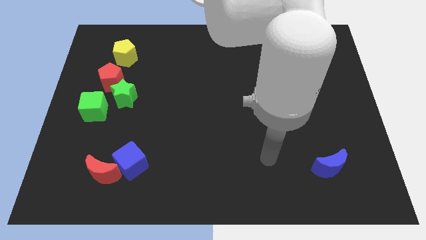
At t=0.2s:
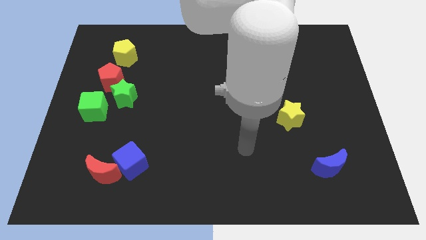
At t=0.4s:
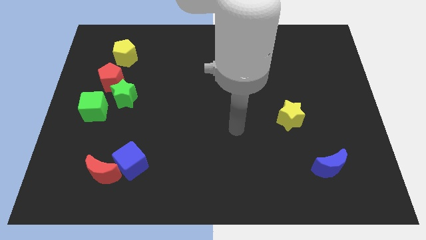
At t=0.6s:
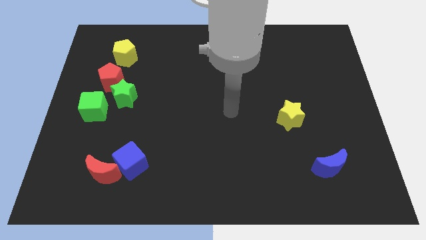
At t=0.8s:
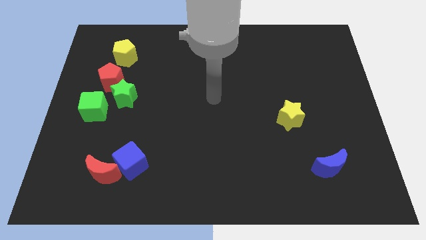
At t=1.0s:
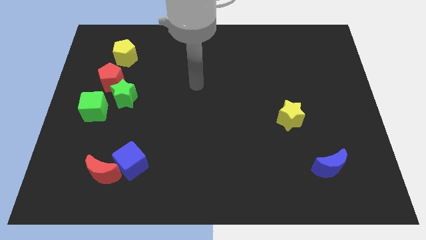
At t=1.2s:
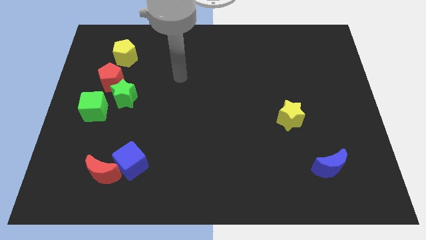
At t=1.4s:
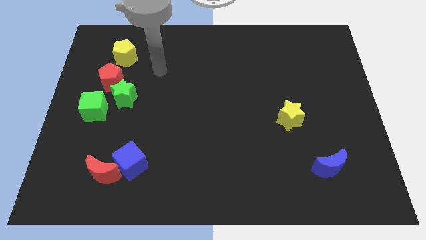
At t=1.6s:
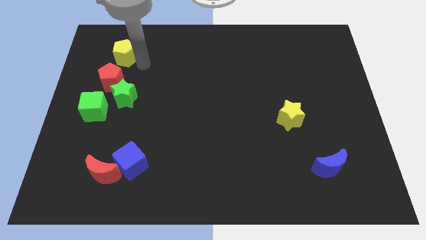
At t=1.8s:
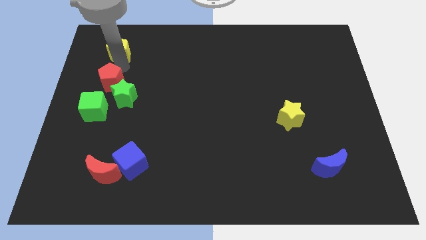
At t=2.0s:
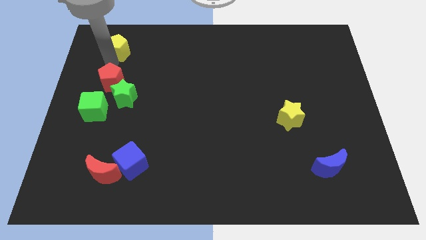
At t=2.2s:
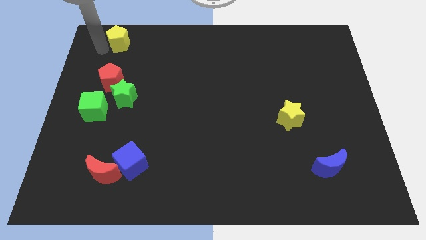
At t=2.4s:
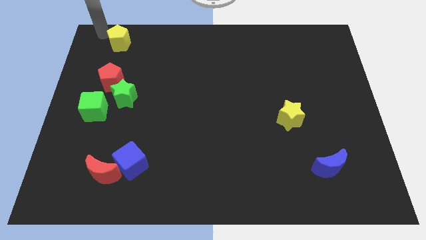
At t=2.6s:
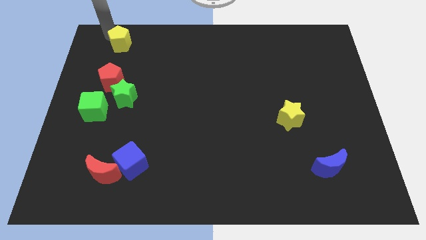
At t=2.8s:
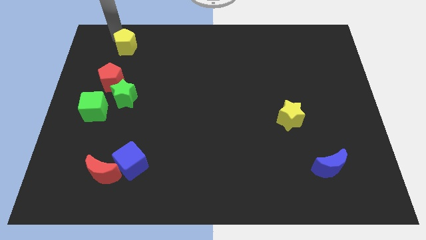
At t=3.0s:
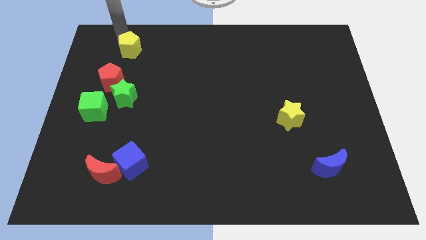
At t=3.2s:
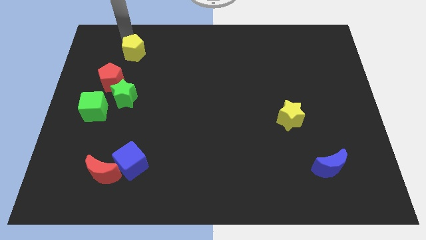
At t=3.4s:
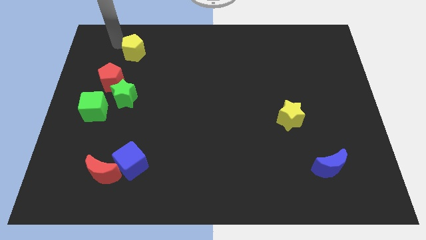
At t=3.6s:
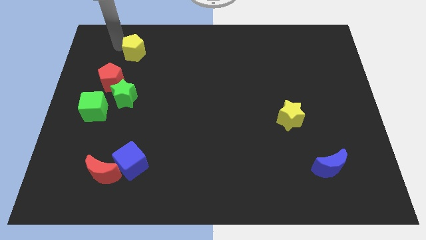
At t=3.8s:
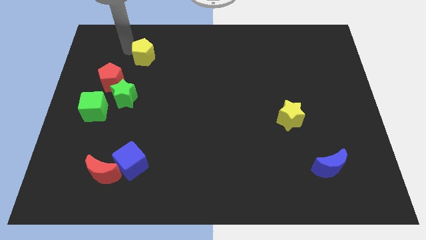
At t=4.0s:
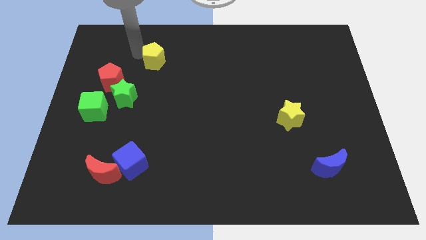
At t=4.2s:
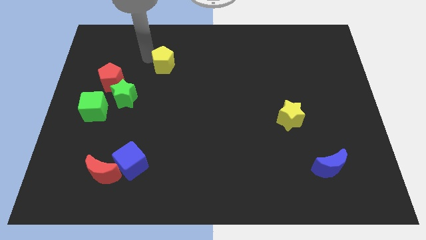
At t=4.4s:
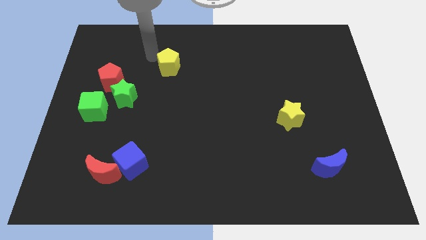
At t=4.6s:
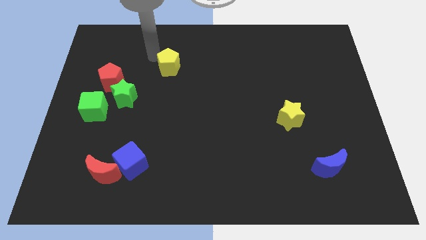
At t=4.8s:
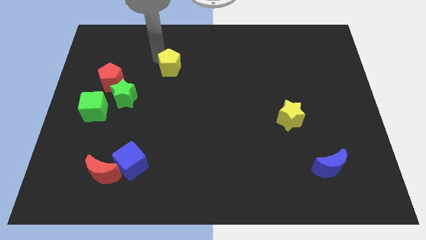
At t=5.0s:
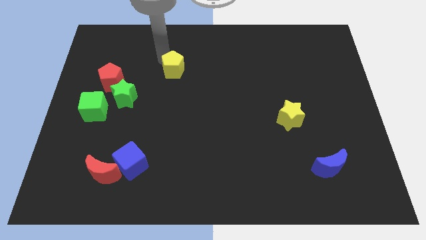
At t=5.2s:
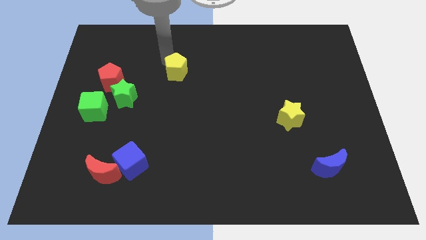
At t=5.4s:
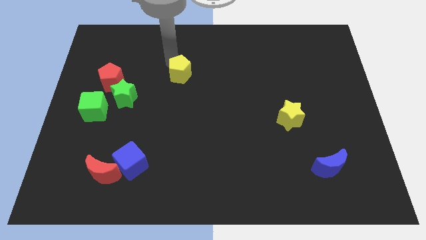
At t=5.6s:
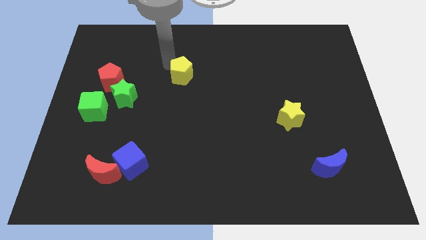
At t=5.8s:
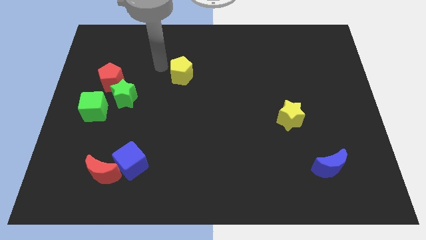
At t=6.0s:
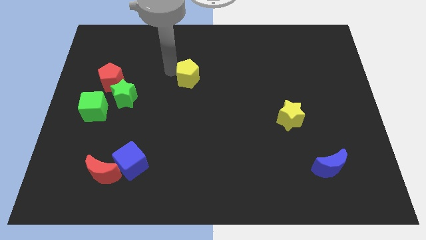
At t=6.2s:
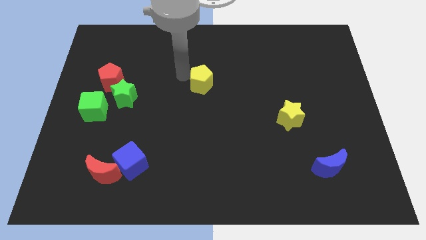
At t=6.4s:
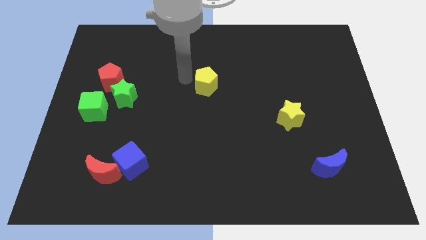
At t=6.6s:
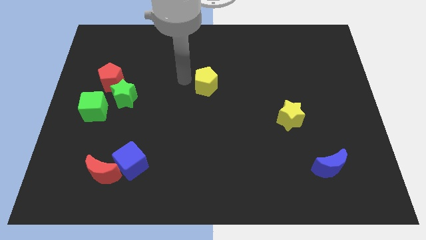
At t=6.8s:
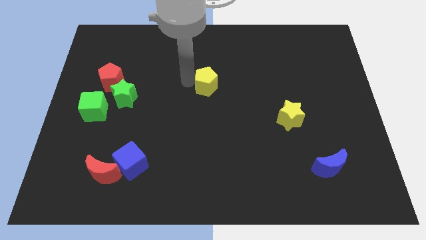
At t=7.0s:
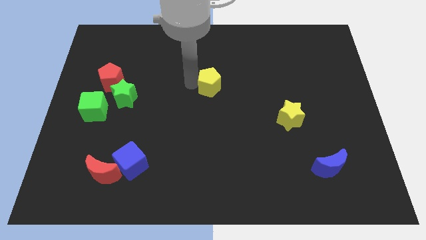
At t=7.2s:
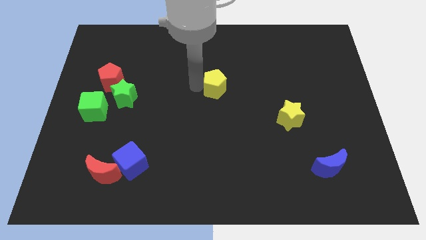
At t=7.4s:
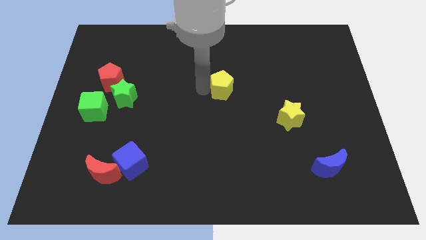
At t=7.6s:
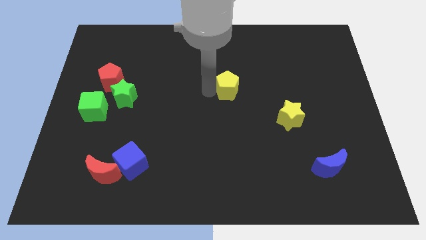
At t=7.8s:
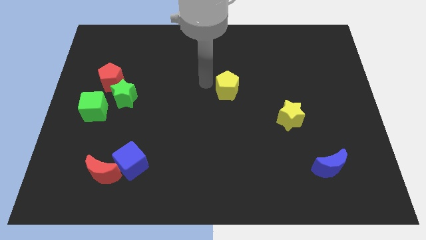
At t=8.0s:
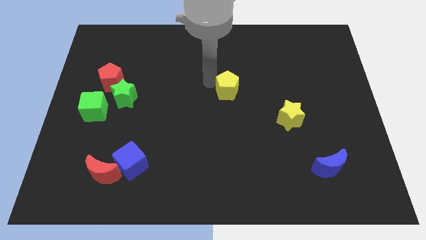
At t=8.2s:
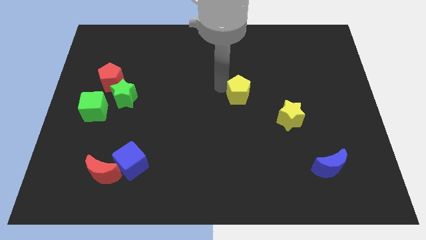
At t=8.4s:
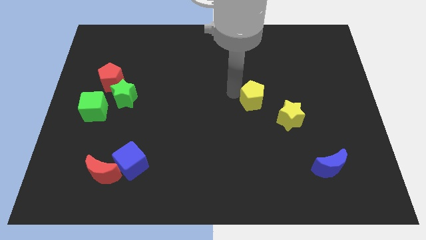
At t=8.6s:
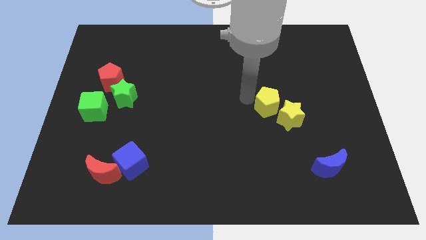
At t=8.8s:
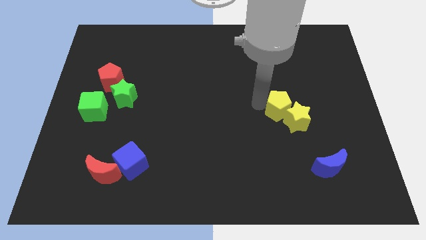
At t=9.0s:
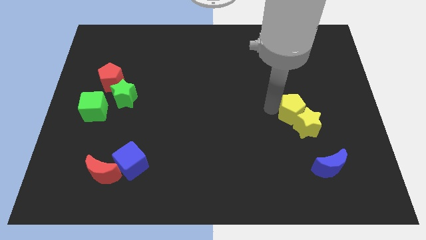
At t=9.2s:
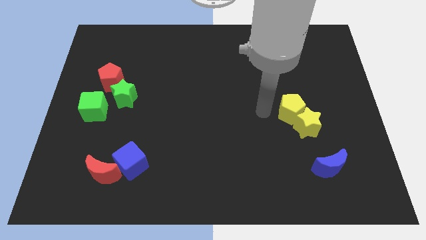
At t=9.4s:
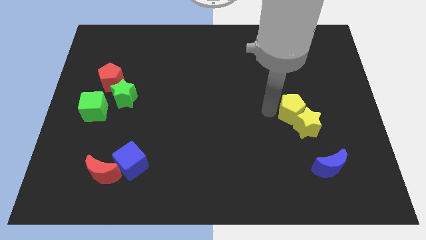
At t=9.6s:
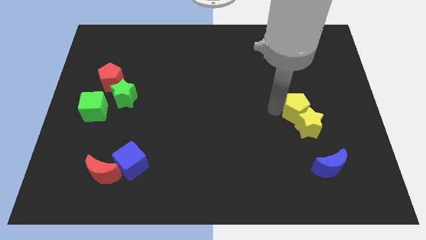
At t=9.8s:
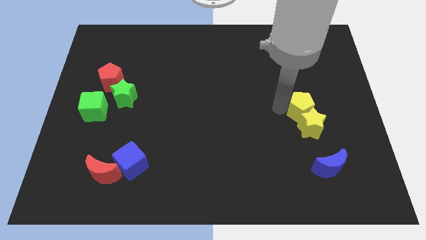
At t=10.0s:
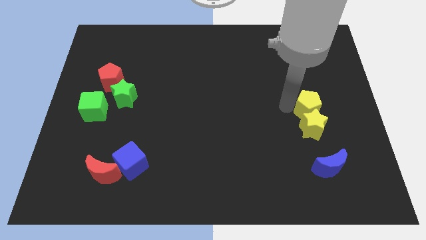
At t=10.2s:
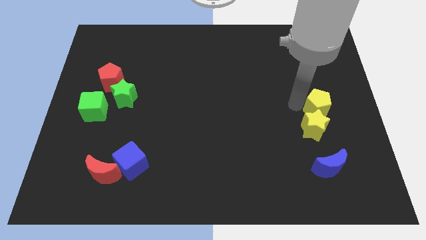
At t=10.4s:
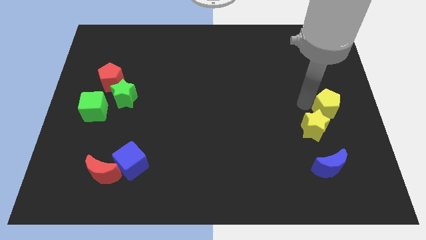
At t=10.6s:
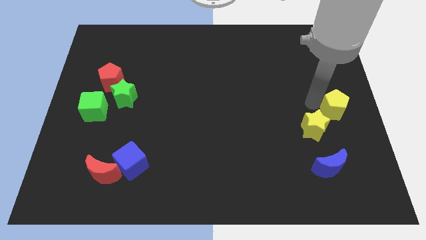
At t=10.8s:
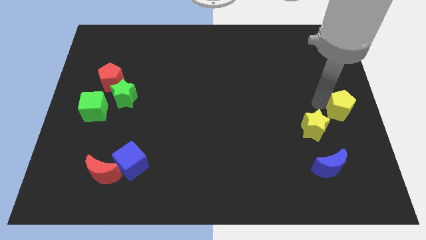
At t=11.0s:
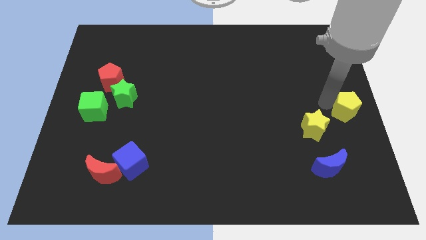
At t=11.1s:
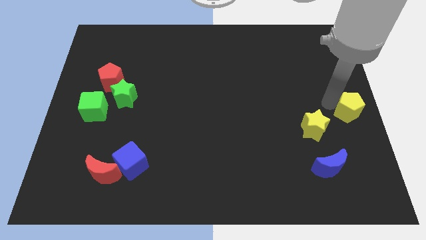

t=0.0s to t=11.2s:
move the yellow pentagon right of the yellow star

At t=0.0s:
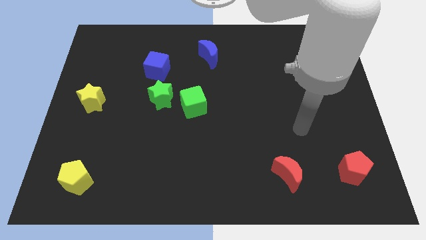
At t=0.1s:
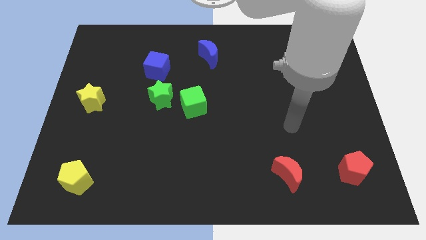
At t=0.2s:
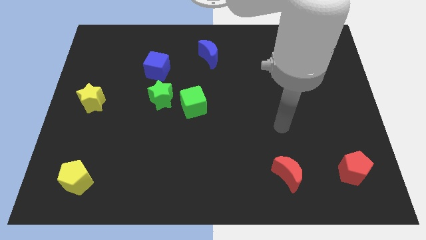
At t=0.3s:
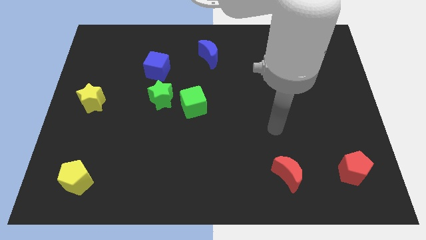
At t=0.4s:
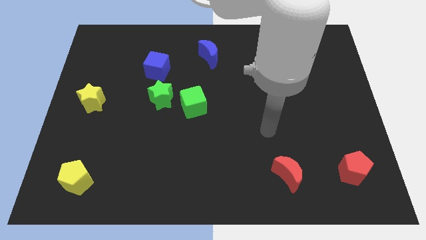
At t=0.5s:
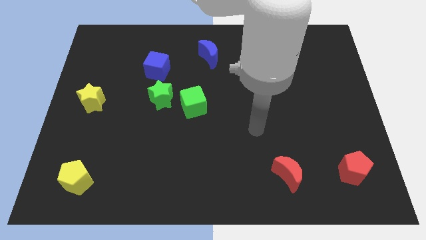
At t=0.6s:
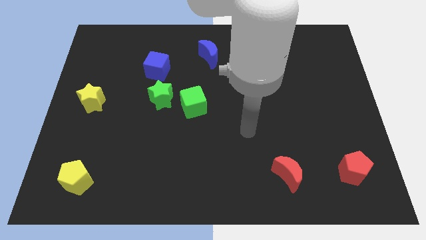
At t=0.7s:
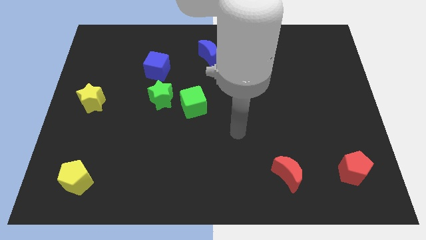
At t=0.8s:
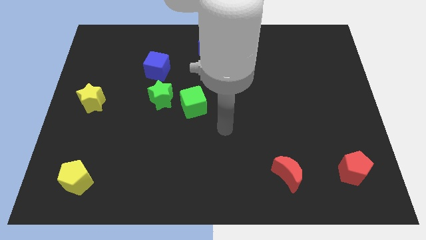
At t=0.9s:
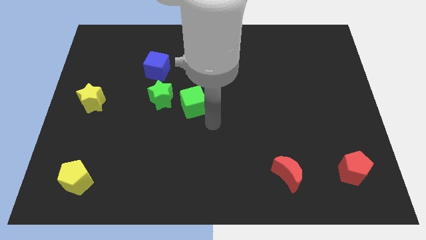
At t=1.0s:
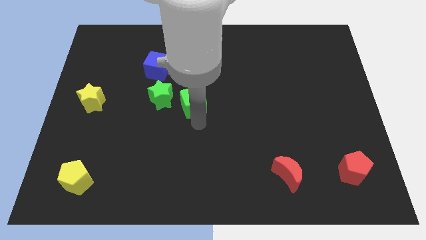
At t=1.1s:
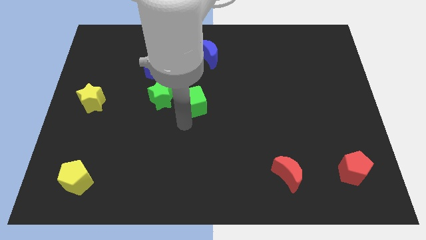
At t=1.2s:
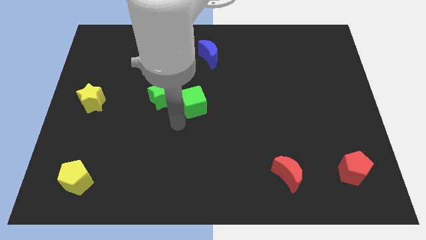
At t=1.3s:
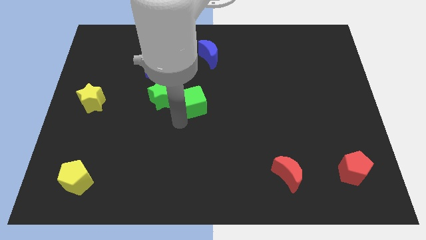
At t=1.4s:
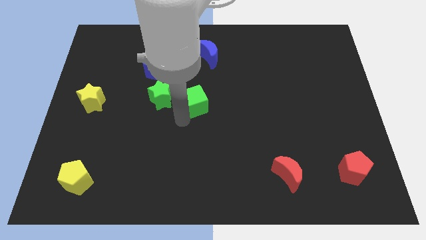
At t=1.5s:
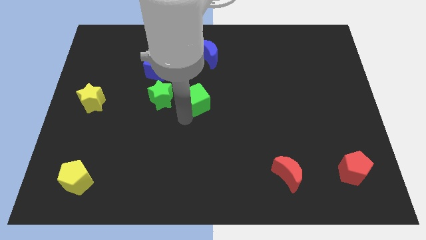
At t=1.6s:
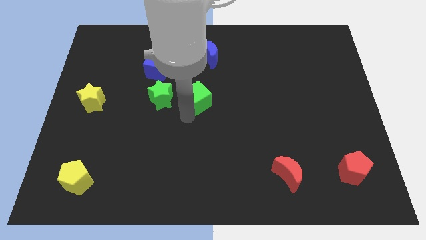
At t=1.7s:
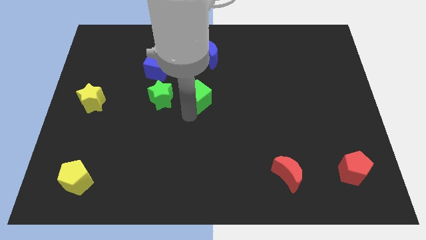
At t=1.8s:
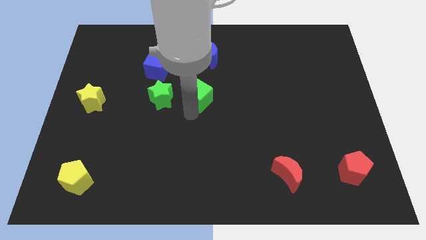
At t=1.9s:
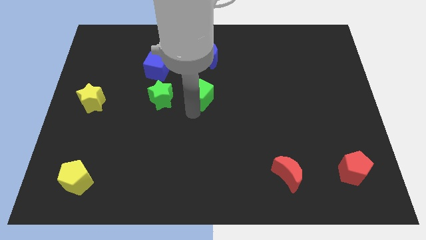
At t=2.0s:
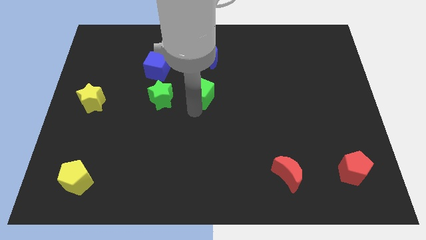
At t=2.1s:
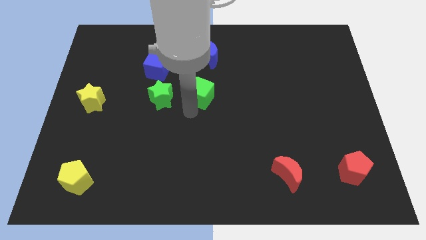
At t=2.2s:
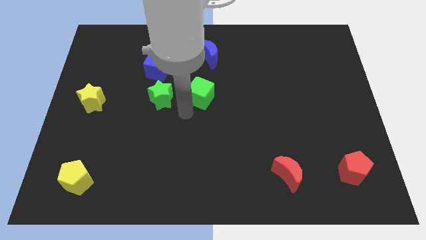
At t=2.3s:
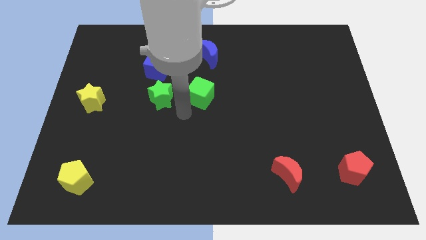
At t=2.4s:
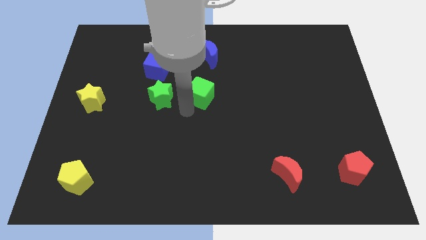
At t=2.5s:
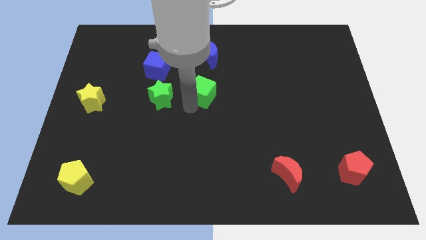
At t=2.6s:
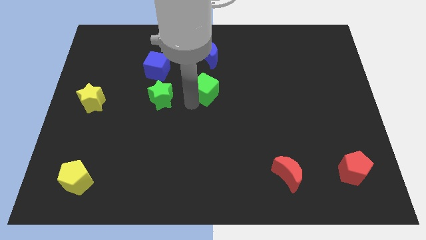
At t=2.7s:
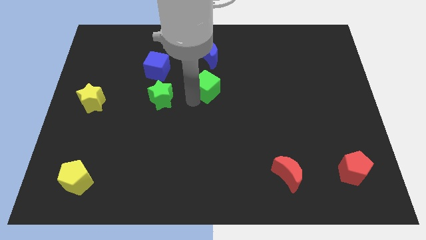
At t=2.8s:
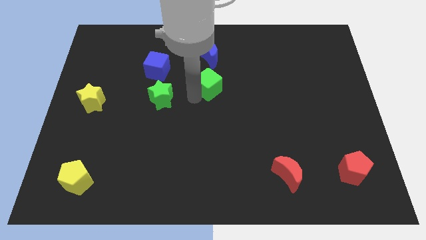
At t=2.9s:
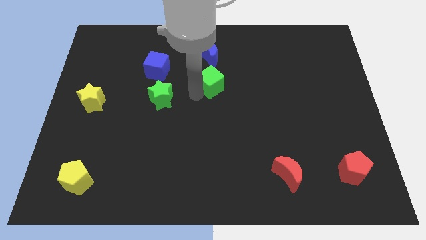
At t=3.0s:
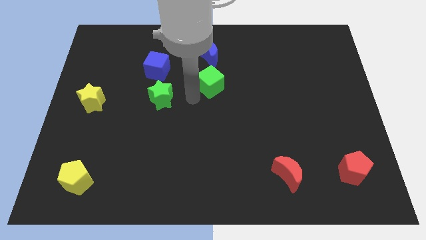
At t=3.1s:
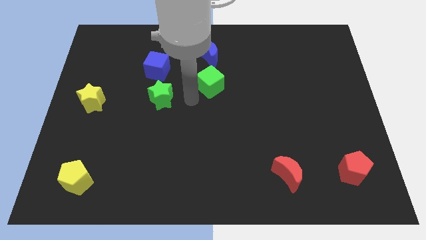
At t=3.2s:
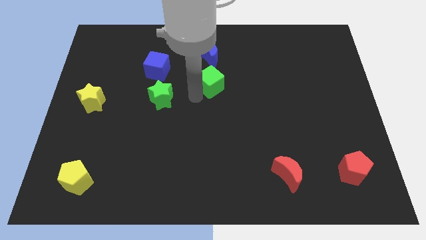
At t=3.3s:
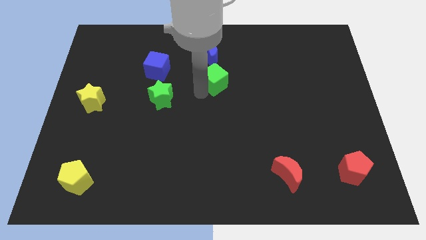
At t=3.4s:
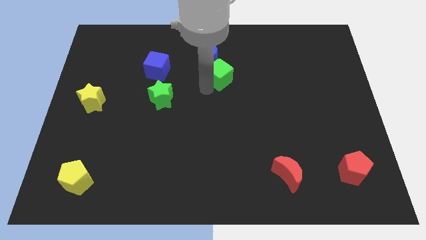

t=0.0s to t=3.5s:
push the green cube to the bottom right side of the blue moon
